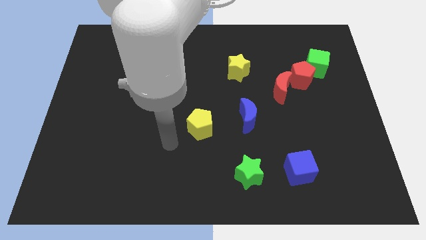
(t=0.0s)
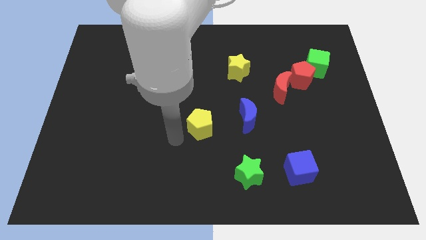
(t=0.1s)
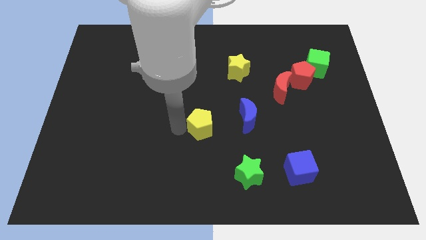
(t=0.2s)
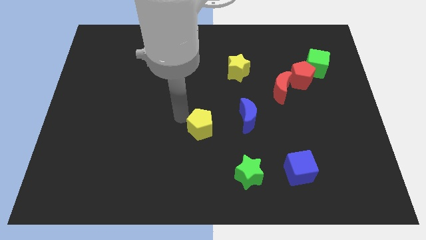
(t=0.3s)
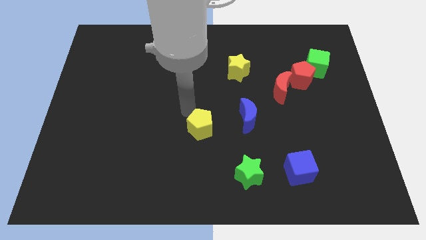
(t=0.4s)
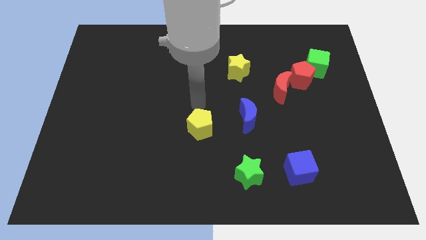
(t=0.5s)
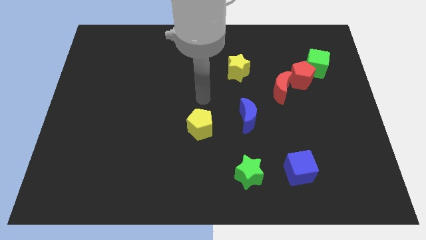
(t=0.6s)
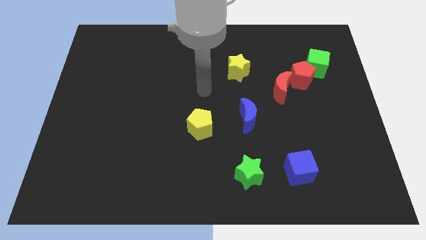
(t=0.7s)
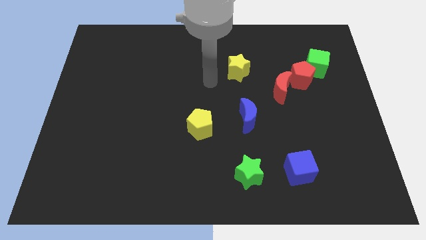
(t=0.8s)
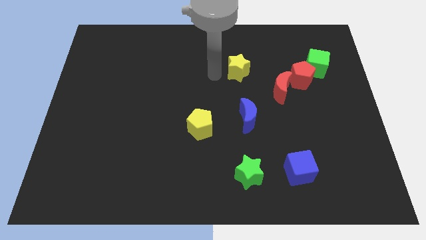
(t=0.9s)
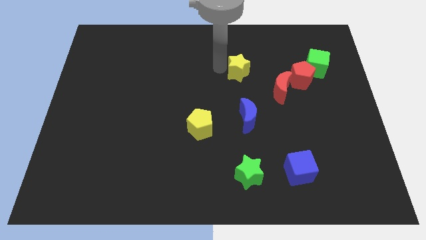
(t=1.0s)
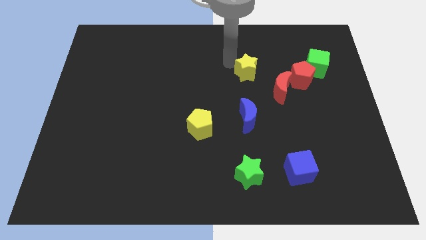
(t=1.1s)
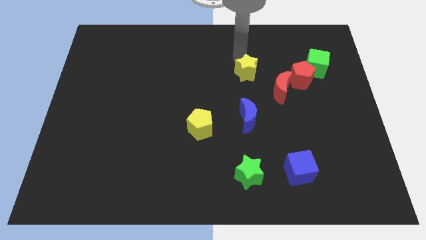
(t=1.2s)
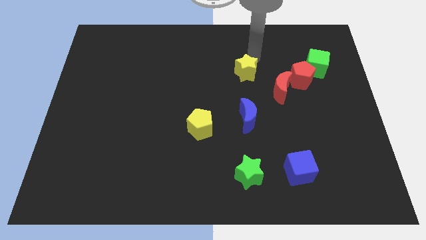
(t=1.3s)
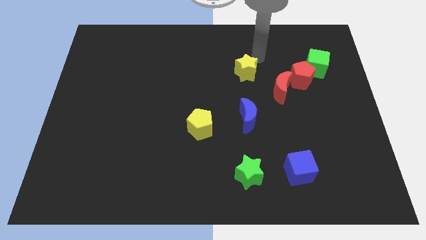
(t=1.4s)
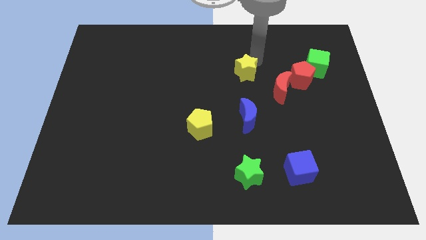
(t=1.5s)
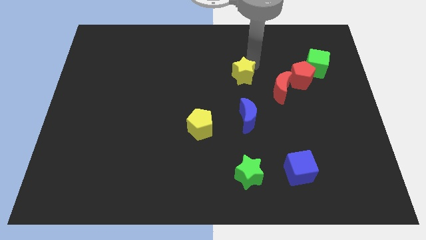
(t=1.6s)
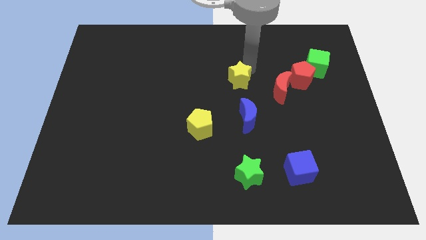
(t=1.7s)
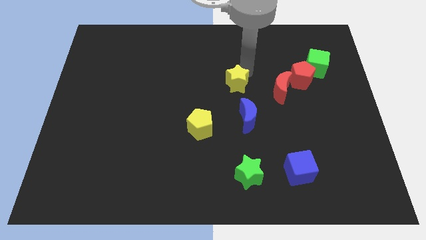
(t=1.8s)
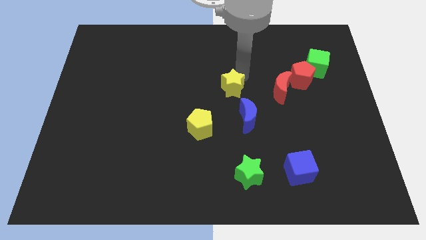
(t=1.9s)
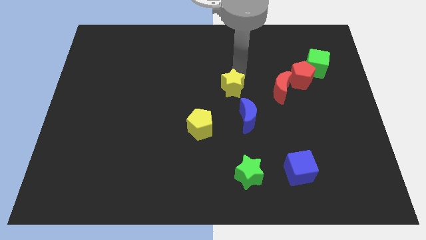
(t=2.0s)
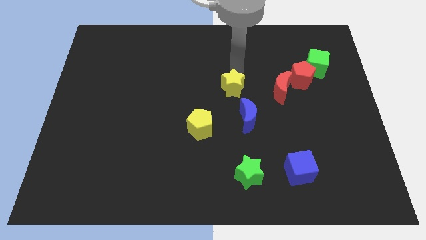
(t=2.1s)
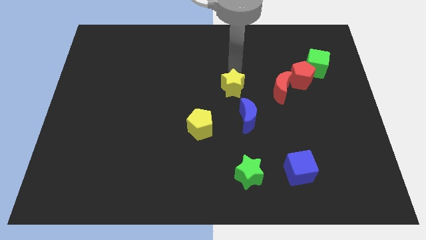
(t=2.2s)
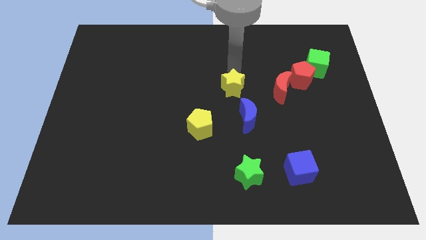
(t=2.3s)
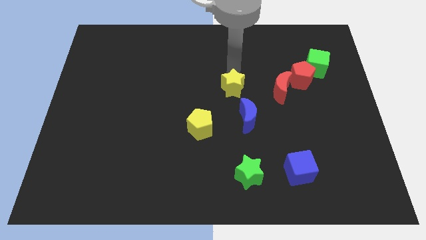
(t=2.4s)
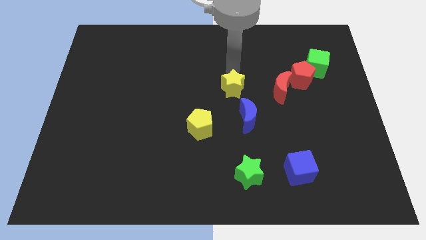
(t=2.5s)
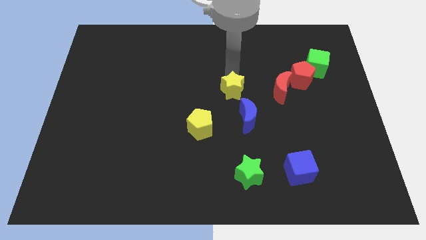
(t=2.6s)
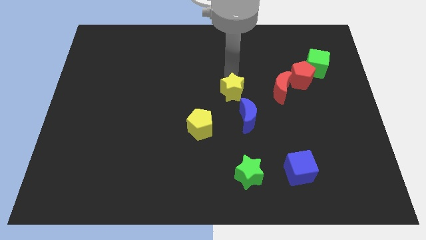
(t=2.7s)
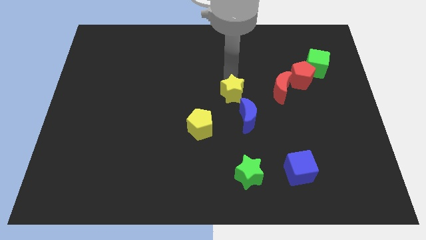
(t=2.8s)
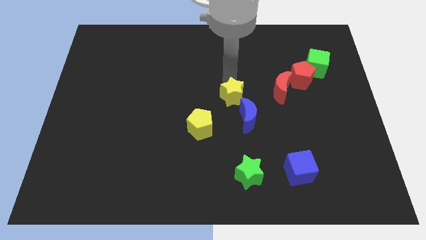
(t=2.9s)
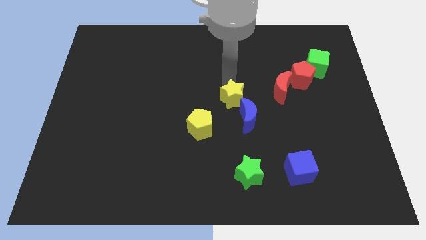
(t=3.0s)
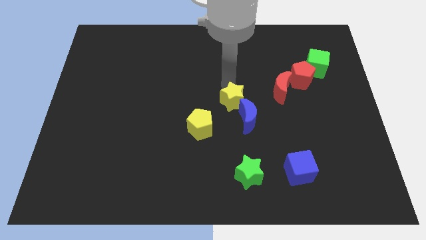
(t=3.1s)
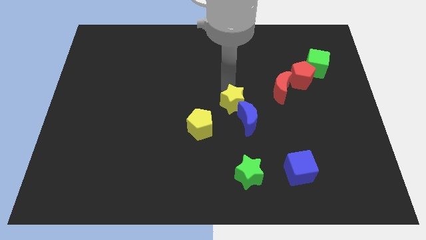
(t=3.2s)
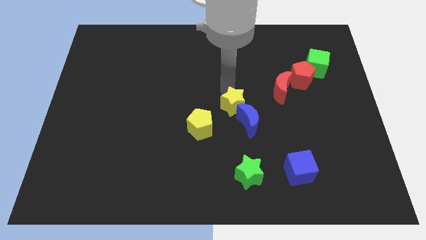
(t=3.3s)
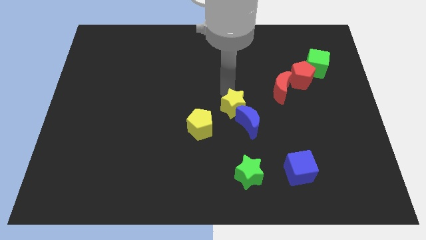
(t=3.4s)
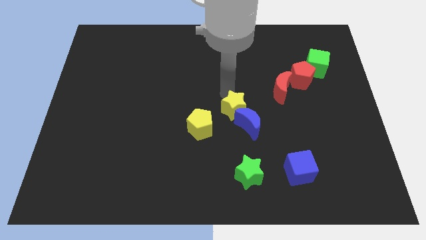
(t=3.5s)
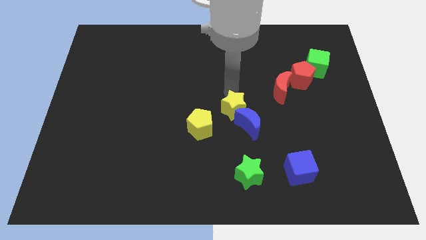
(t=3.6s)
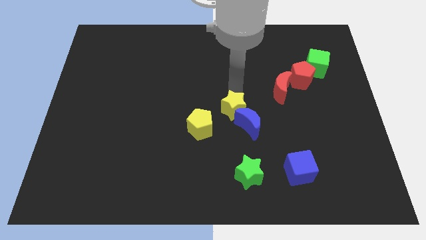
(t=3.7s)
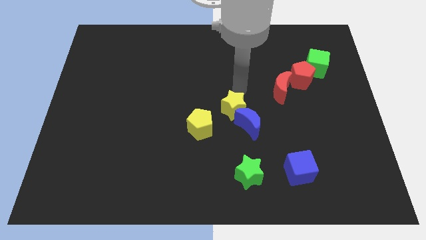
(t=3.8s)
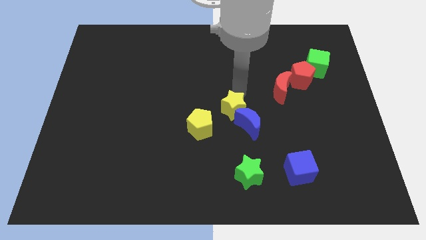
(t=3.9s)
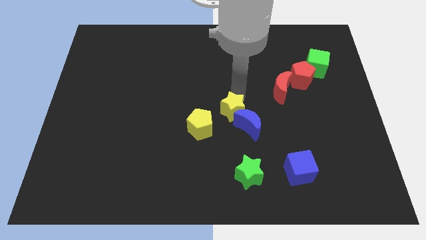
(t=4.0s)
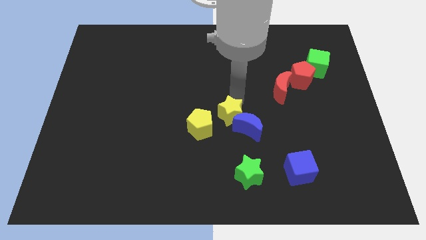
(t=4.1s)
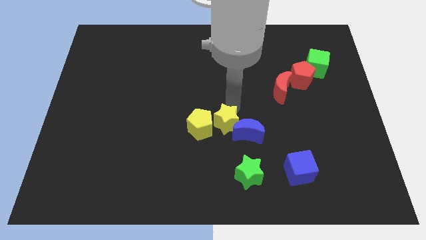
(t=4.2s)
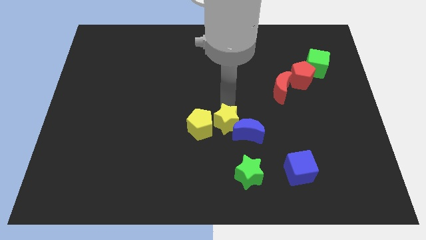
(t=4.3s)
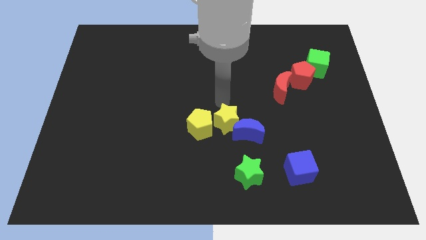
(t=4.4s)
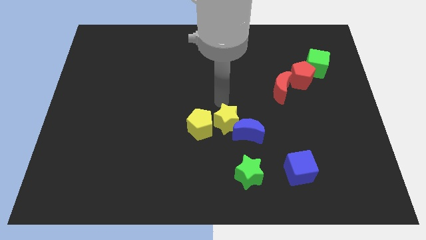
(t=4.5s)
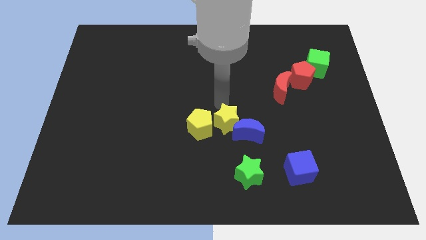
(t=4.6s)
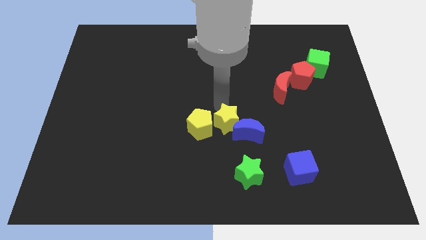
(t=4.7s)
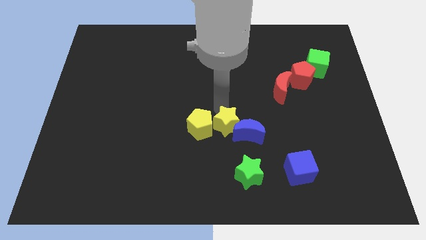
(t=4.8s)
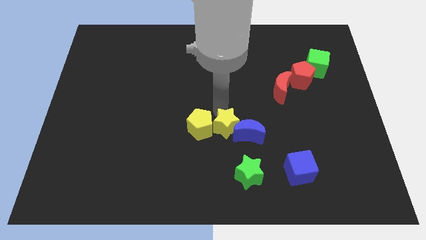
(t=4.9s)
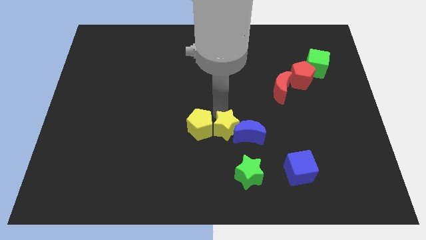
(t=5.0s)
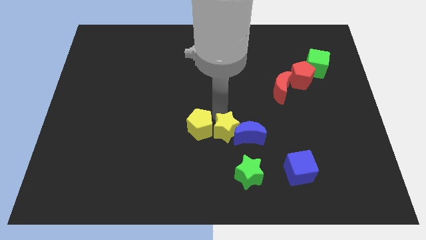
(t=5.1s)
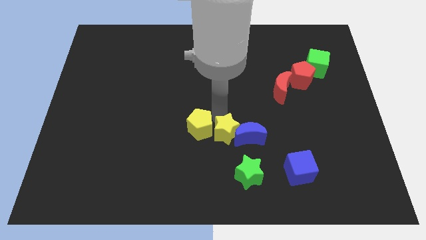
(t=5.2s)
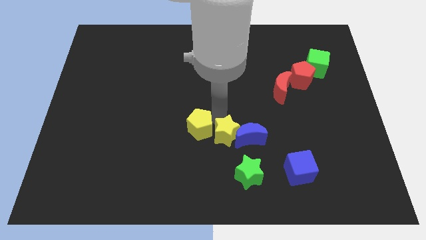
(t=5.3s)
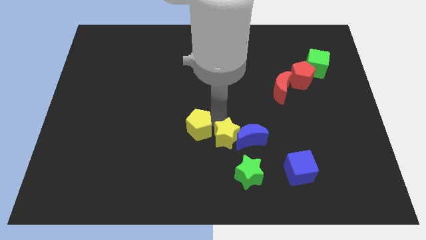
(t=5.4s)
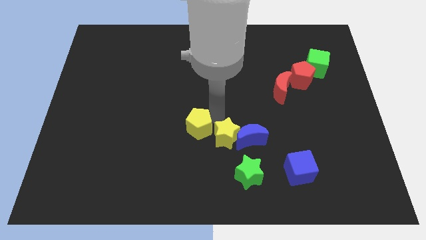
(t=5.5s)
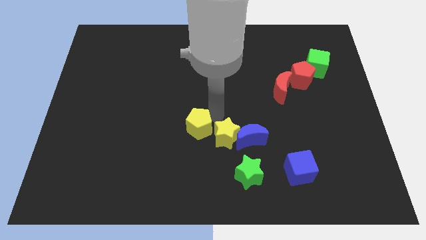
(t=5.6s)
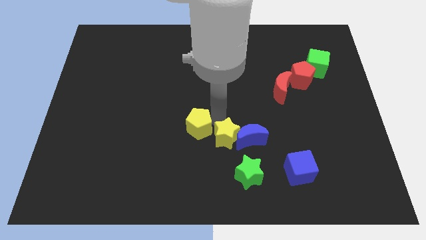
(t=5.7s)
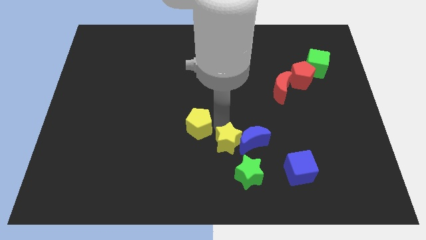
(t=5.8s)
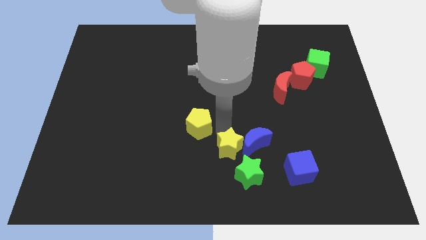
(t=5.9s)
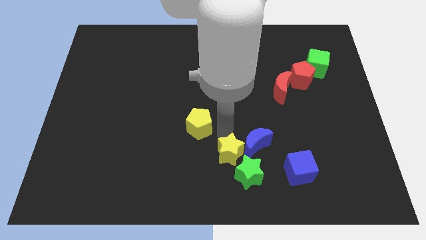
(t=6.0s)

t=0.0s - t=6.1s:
move the yellow star next to the green star

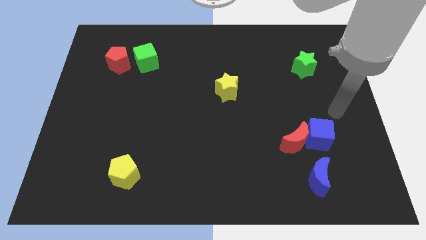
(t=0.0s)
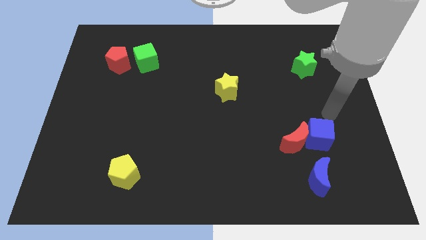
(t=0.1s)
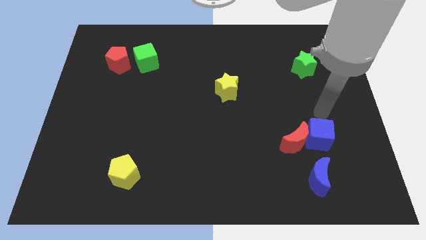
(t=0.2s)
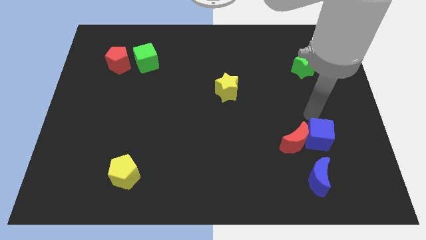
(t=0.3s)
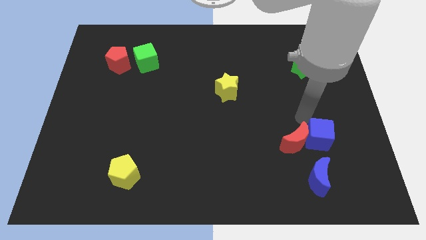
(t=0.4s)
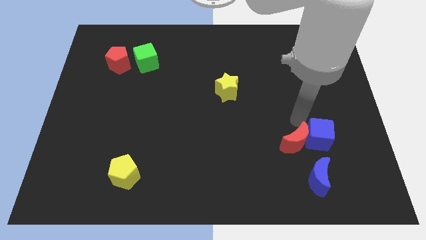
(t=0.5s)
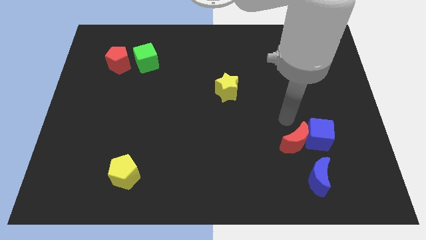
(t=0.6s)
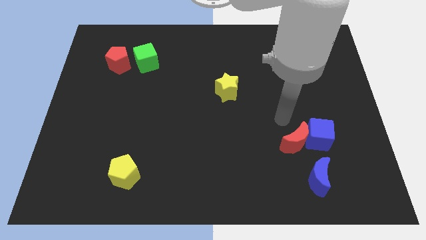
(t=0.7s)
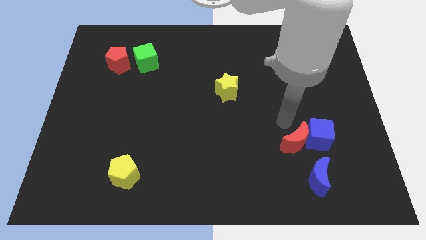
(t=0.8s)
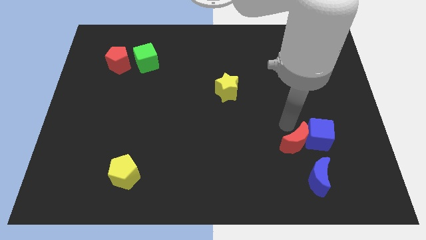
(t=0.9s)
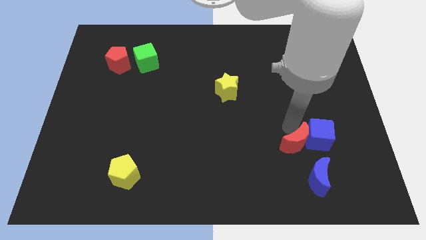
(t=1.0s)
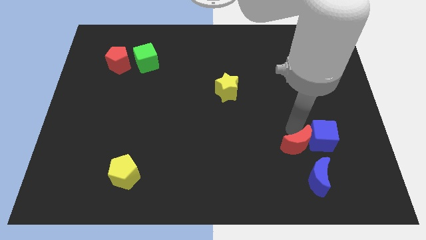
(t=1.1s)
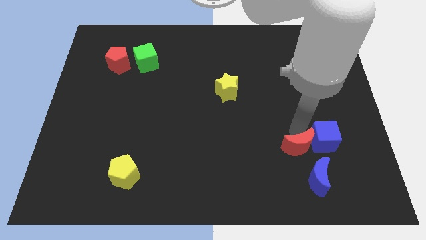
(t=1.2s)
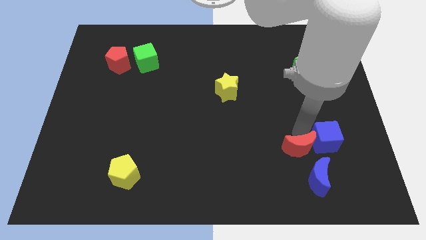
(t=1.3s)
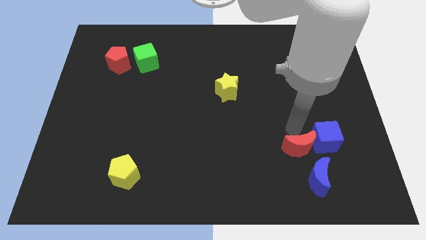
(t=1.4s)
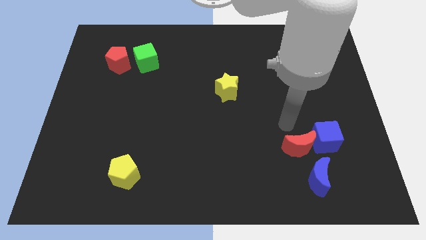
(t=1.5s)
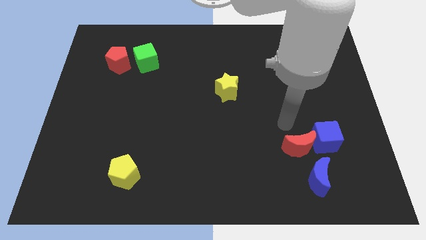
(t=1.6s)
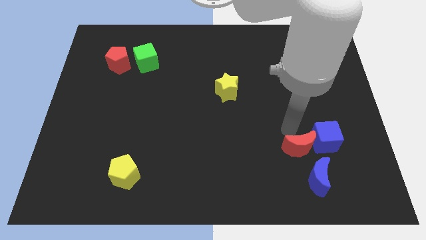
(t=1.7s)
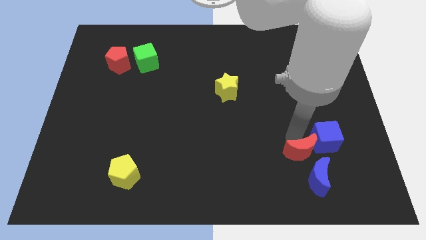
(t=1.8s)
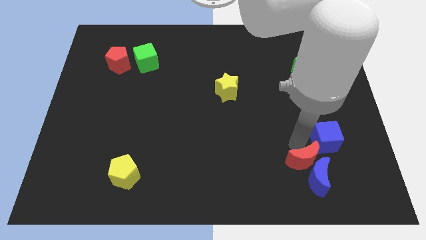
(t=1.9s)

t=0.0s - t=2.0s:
push the red moon to the blue moon
